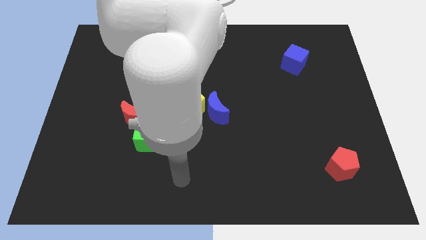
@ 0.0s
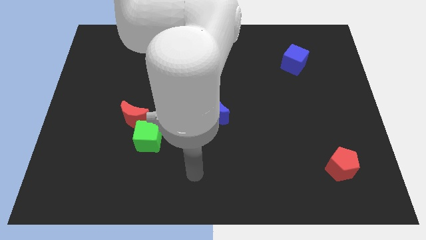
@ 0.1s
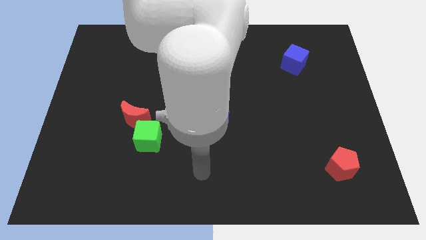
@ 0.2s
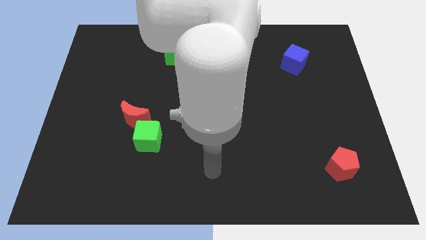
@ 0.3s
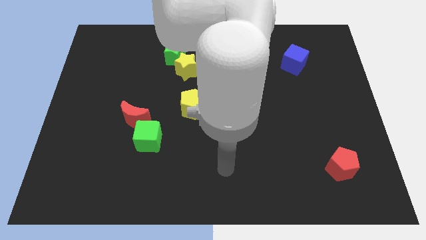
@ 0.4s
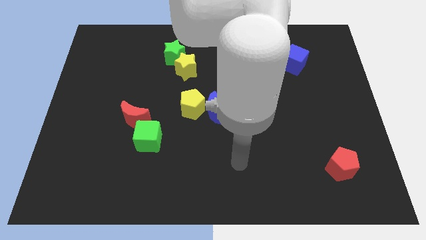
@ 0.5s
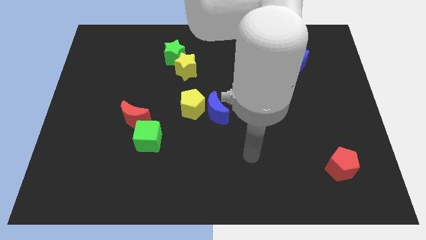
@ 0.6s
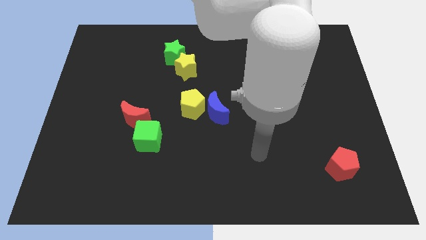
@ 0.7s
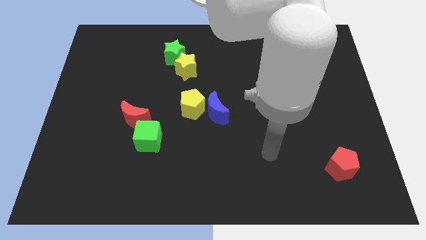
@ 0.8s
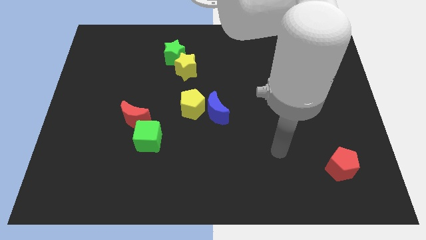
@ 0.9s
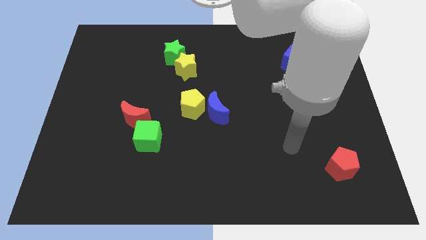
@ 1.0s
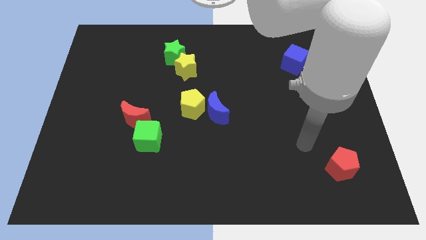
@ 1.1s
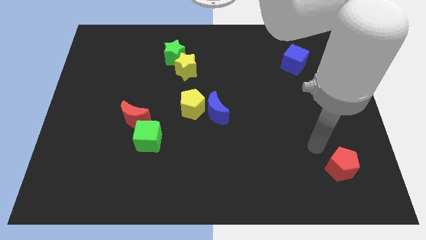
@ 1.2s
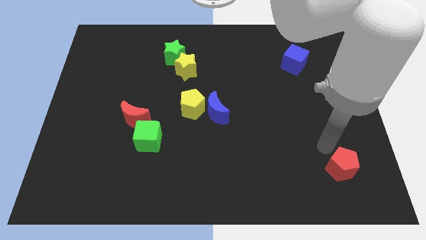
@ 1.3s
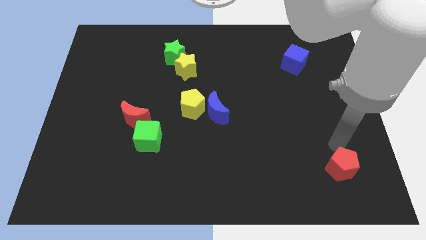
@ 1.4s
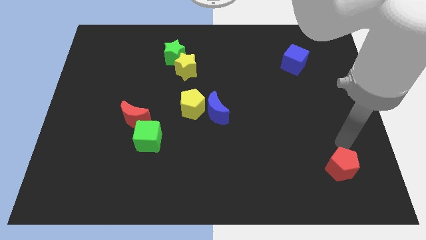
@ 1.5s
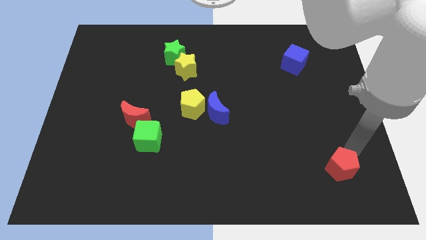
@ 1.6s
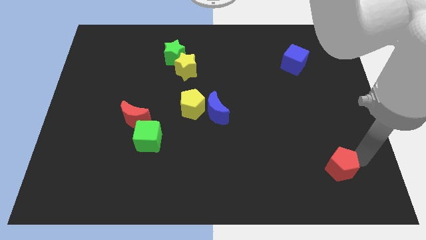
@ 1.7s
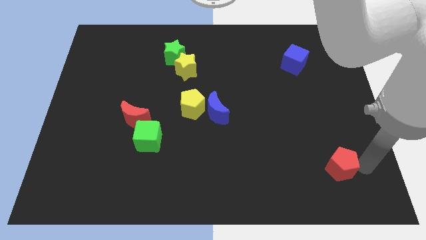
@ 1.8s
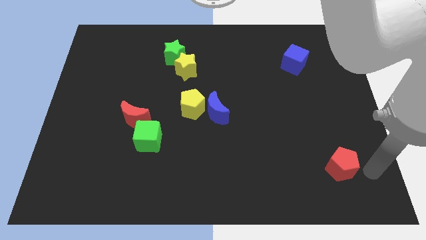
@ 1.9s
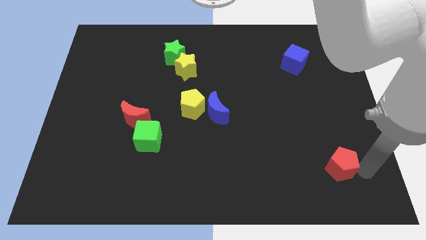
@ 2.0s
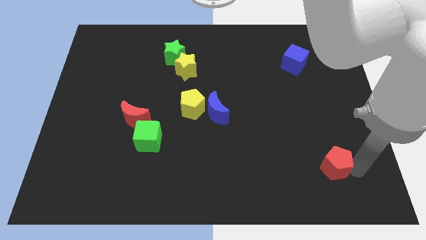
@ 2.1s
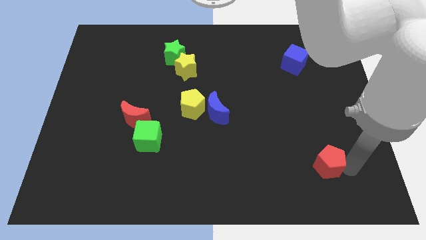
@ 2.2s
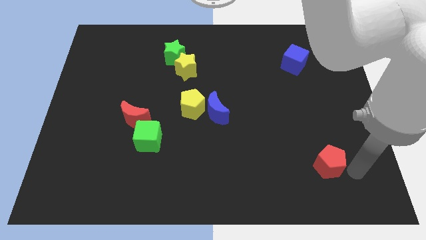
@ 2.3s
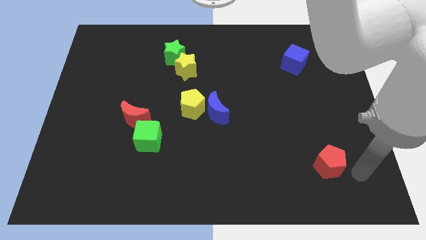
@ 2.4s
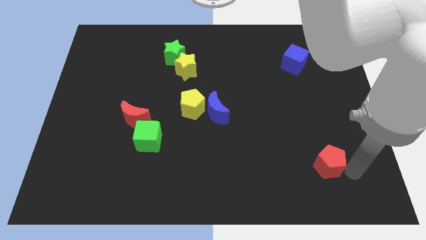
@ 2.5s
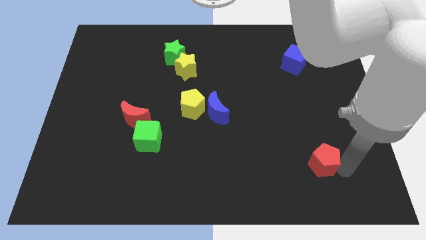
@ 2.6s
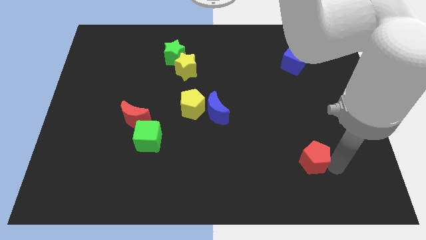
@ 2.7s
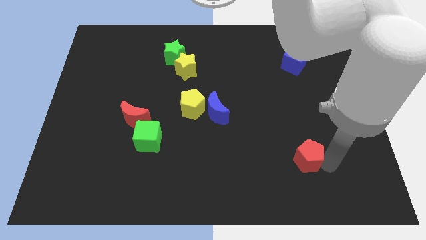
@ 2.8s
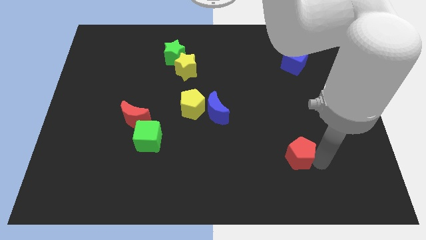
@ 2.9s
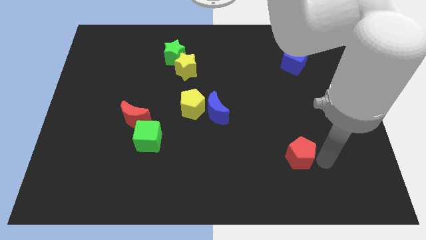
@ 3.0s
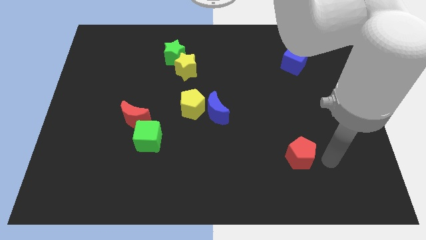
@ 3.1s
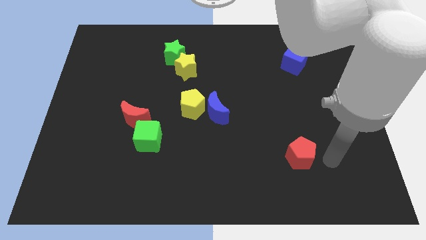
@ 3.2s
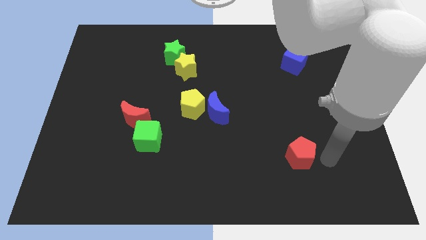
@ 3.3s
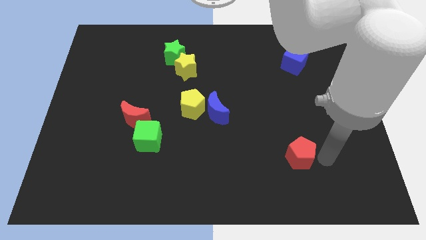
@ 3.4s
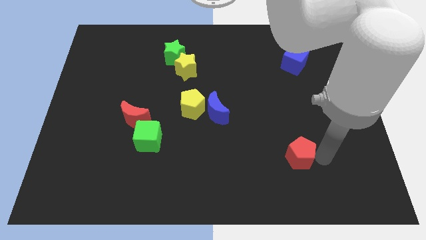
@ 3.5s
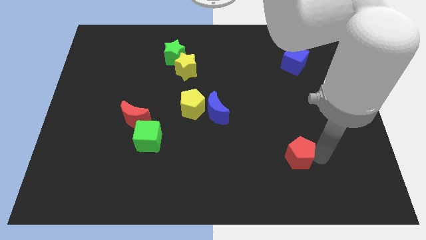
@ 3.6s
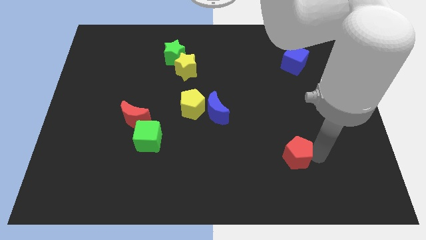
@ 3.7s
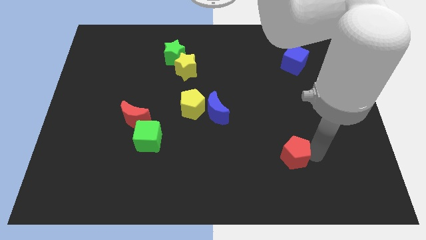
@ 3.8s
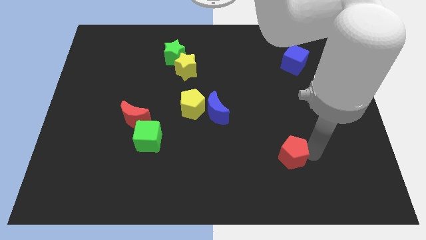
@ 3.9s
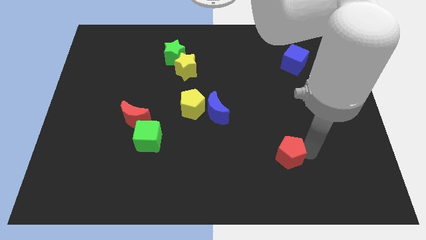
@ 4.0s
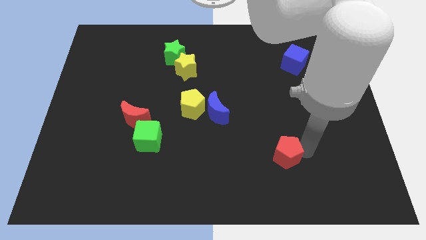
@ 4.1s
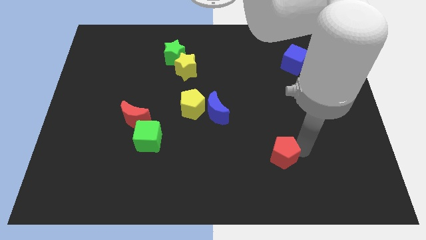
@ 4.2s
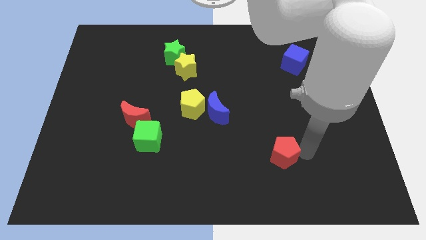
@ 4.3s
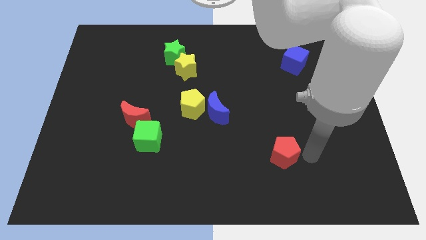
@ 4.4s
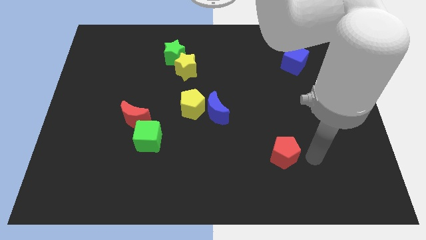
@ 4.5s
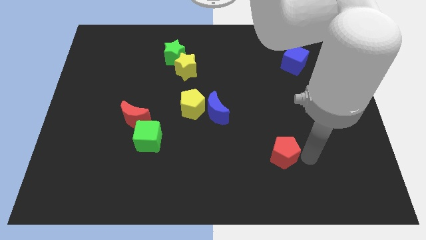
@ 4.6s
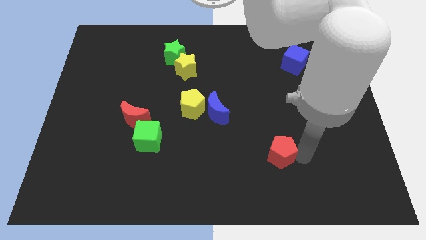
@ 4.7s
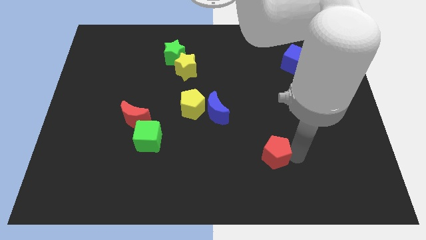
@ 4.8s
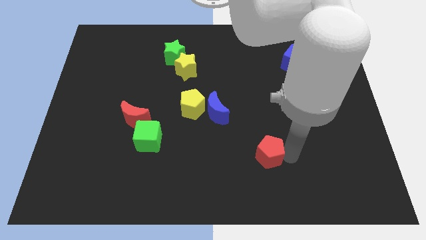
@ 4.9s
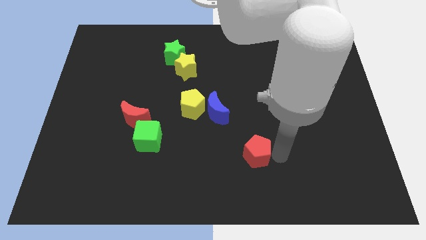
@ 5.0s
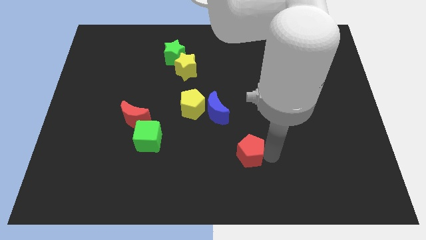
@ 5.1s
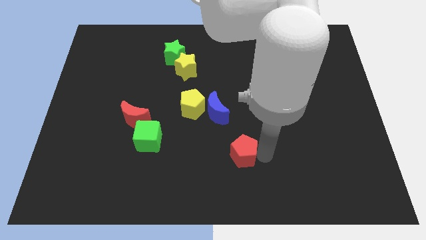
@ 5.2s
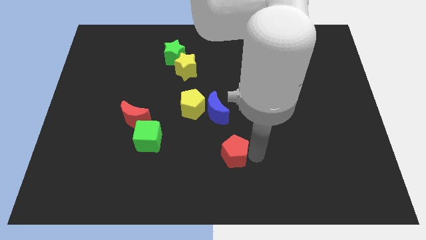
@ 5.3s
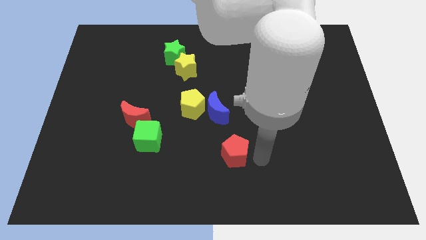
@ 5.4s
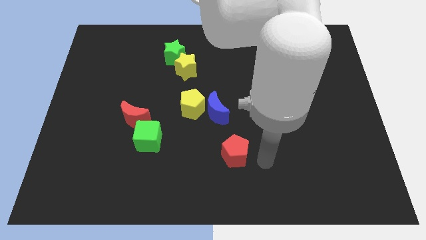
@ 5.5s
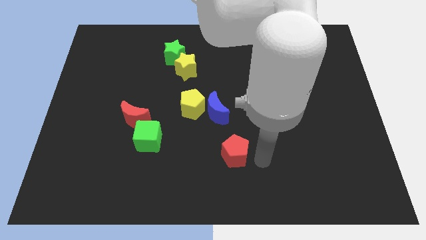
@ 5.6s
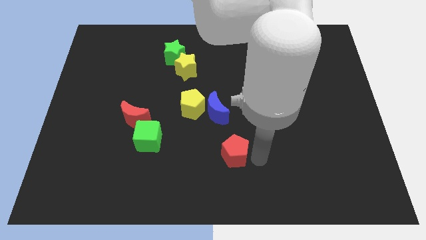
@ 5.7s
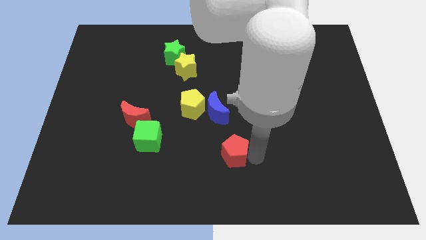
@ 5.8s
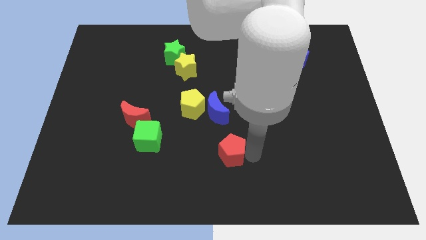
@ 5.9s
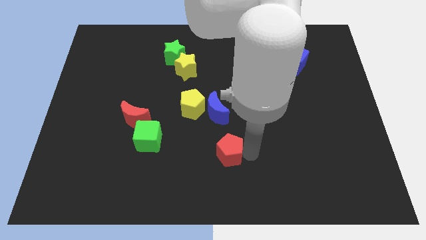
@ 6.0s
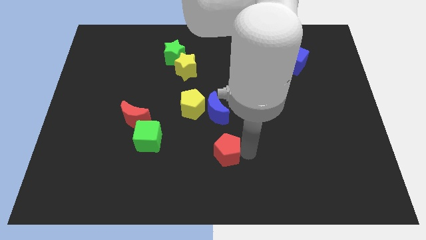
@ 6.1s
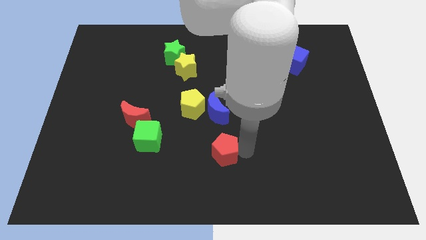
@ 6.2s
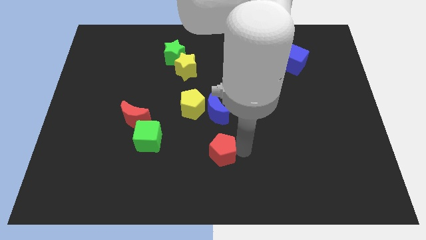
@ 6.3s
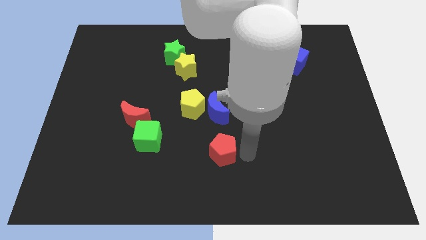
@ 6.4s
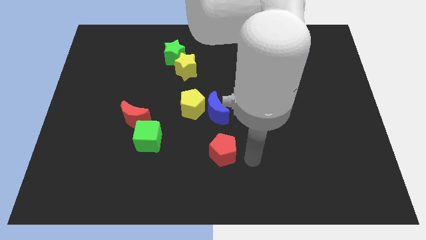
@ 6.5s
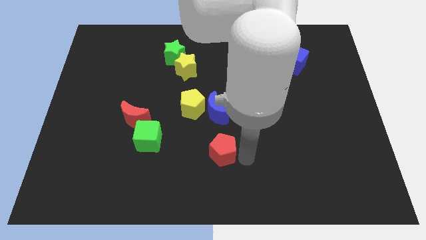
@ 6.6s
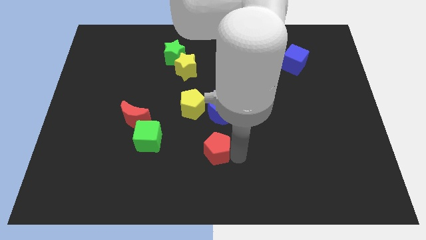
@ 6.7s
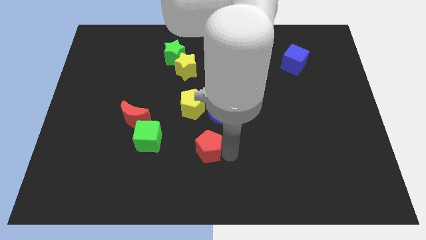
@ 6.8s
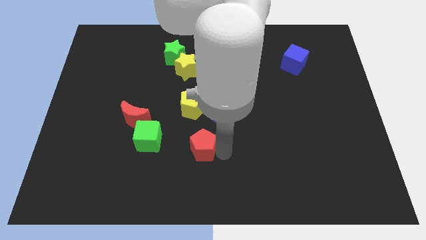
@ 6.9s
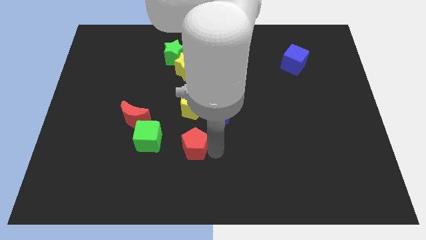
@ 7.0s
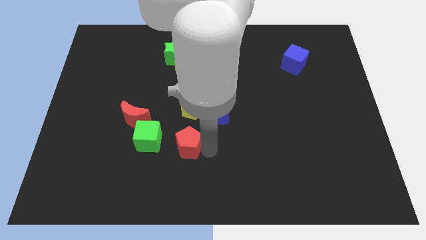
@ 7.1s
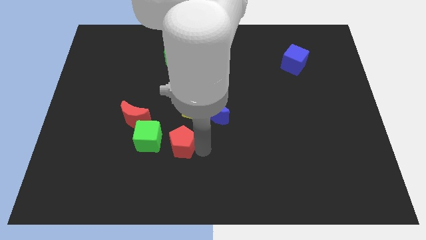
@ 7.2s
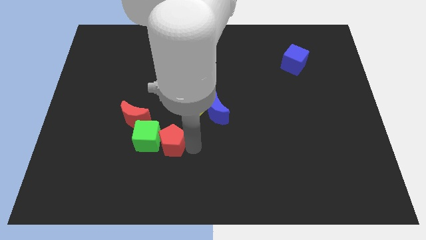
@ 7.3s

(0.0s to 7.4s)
put the red pentagon next to the green cube
